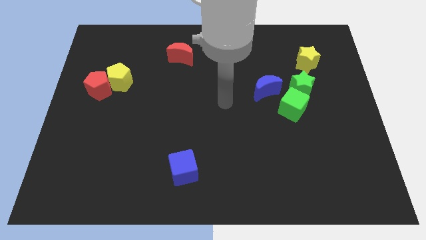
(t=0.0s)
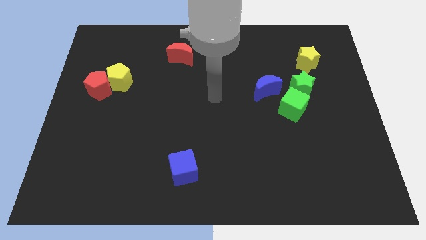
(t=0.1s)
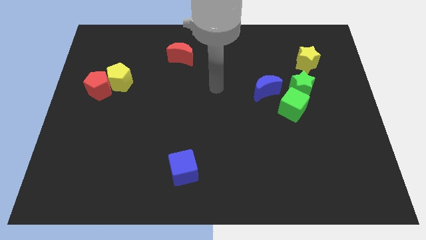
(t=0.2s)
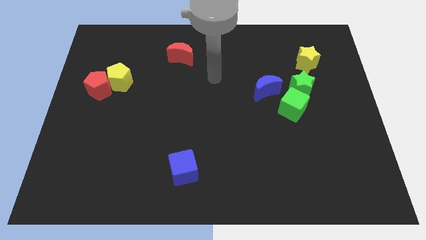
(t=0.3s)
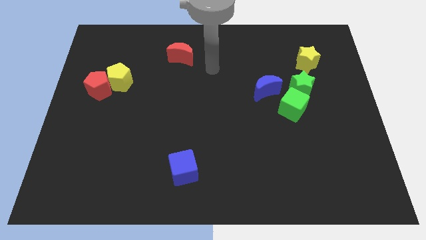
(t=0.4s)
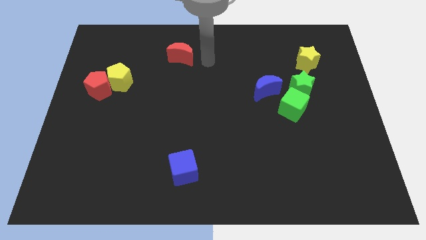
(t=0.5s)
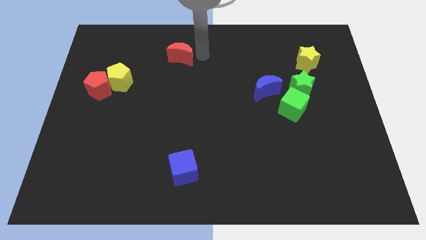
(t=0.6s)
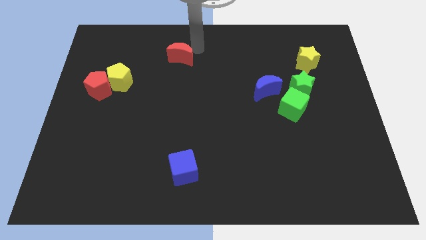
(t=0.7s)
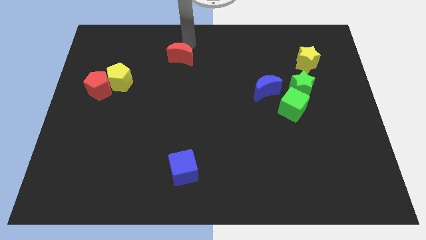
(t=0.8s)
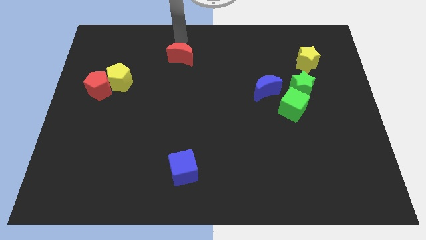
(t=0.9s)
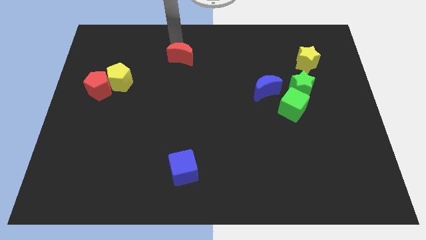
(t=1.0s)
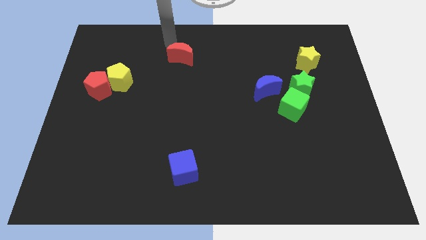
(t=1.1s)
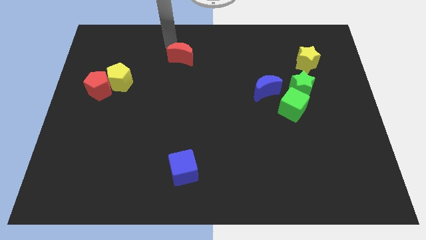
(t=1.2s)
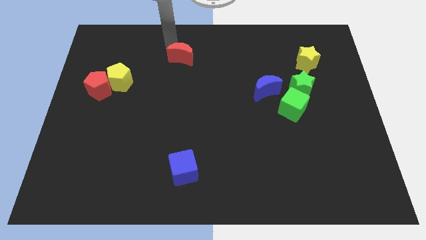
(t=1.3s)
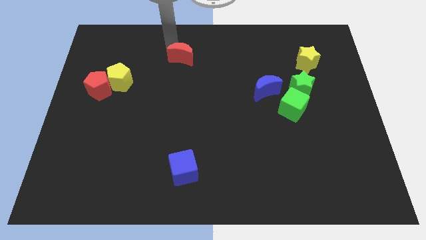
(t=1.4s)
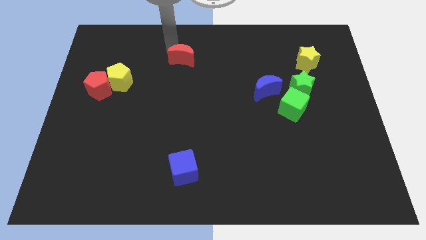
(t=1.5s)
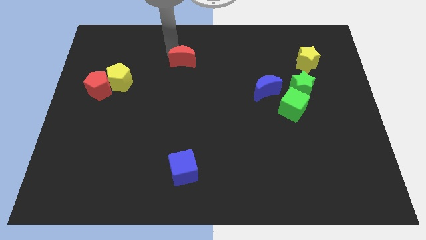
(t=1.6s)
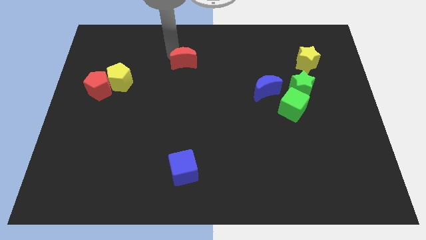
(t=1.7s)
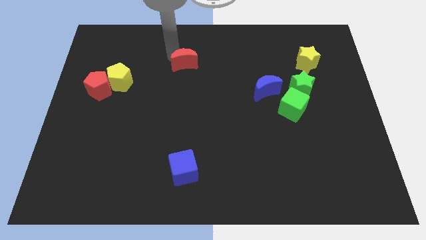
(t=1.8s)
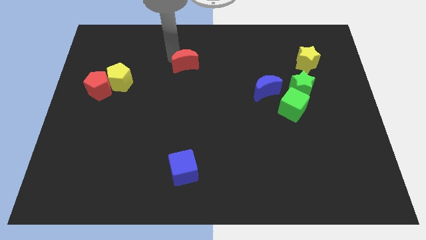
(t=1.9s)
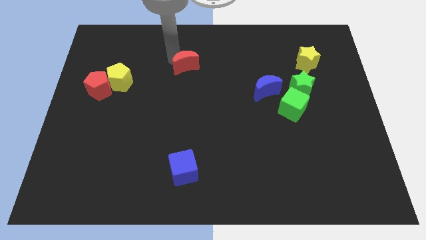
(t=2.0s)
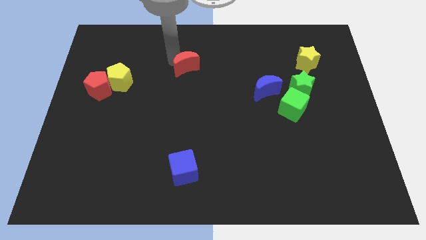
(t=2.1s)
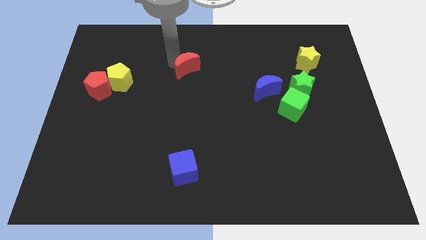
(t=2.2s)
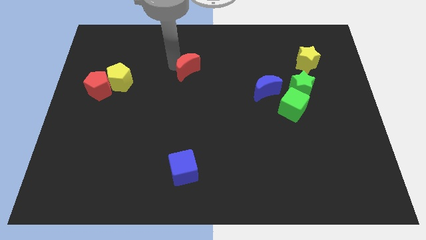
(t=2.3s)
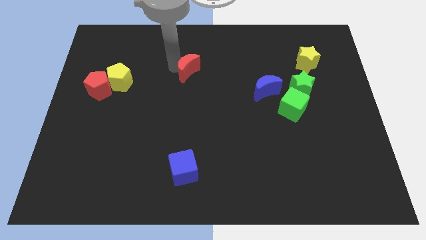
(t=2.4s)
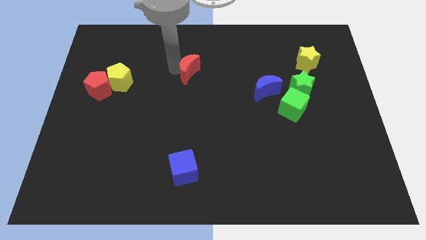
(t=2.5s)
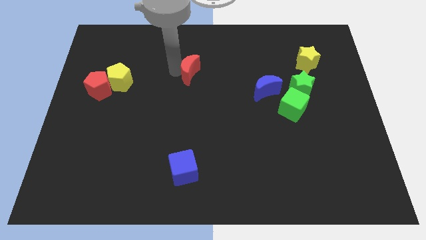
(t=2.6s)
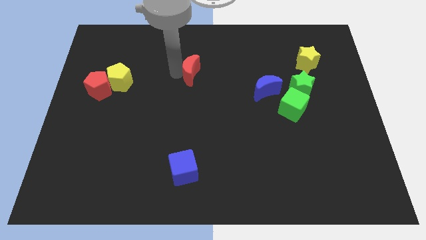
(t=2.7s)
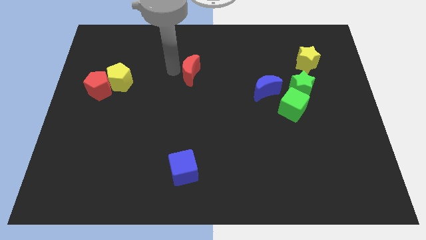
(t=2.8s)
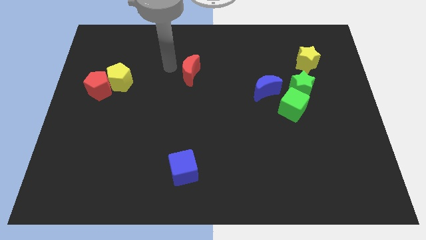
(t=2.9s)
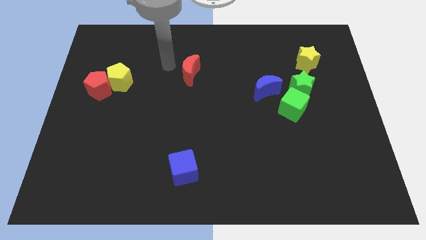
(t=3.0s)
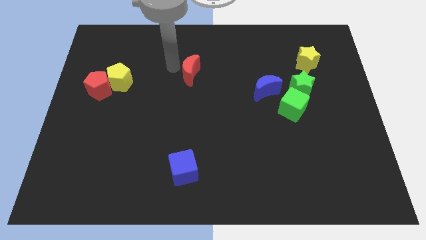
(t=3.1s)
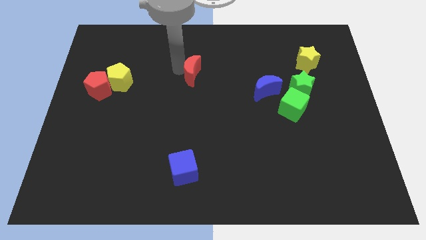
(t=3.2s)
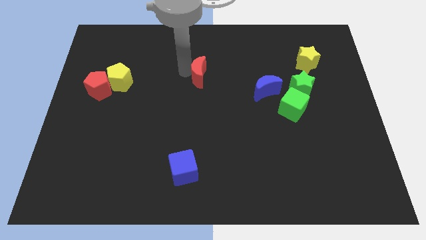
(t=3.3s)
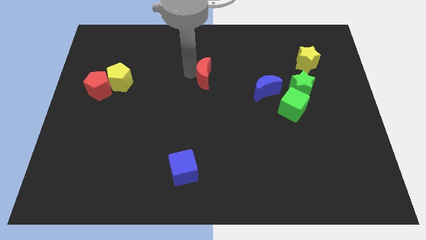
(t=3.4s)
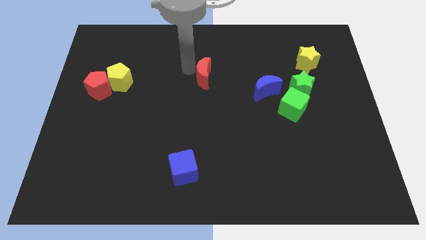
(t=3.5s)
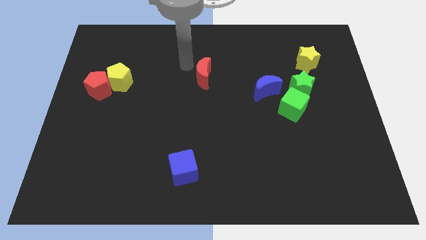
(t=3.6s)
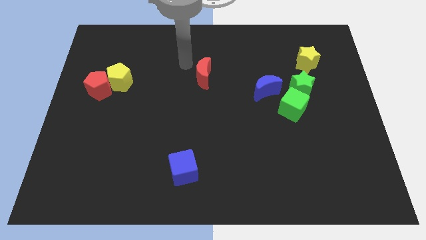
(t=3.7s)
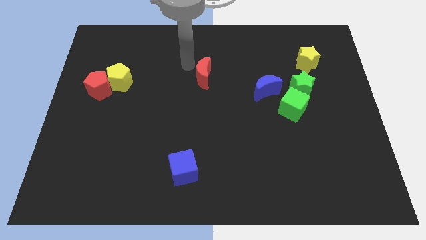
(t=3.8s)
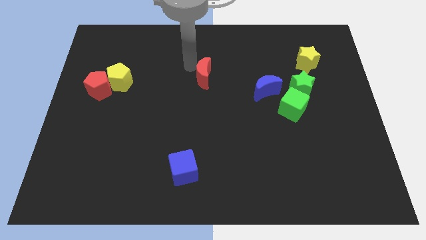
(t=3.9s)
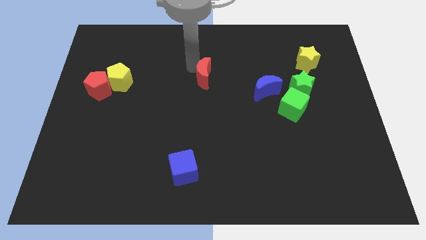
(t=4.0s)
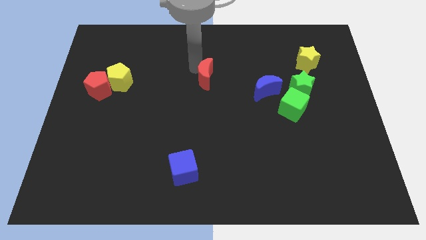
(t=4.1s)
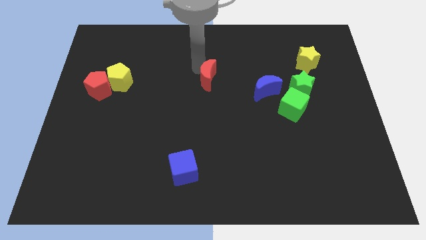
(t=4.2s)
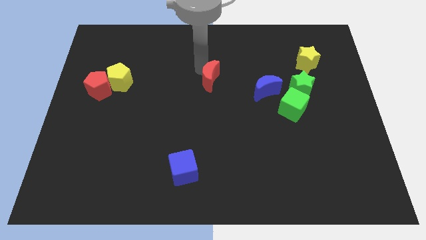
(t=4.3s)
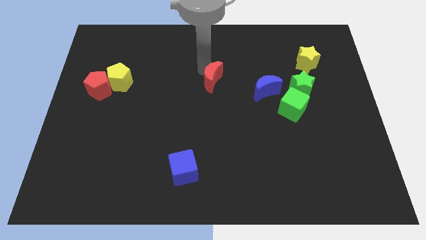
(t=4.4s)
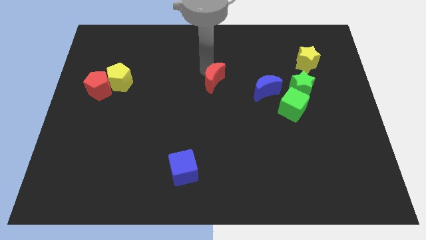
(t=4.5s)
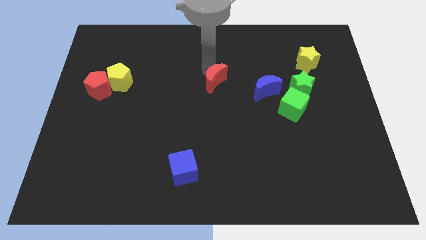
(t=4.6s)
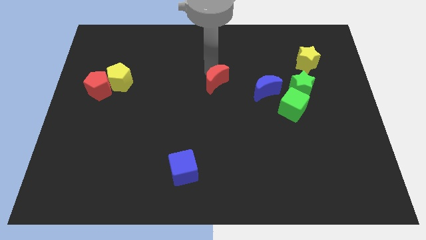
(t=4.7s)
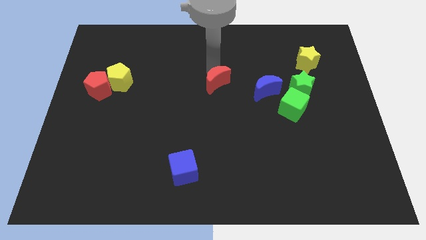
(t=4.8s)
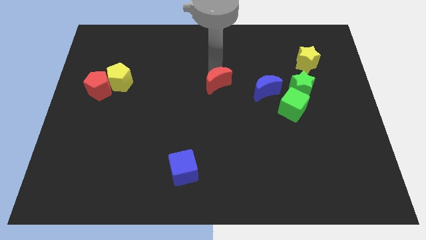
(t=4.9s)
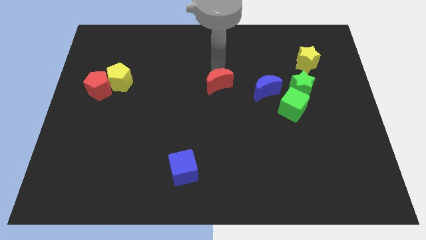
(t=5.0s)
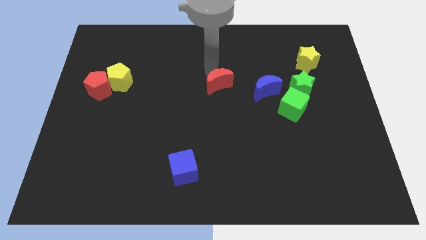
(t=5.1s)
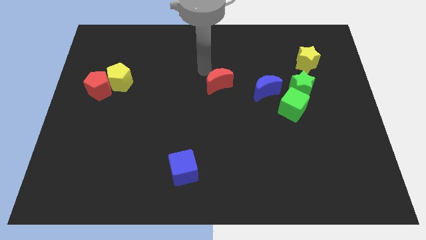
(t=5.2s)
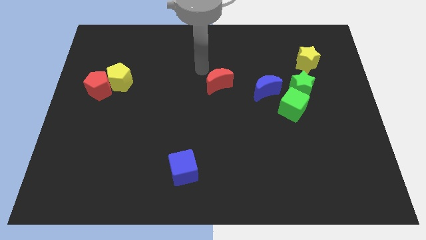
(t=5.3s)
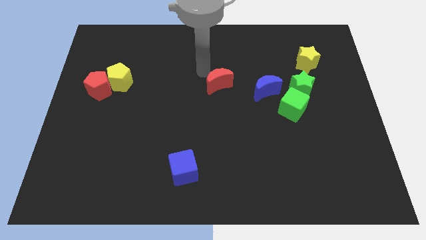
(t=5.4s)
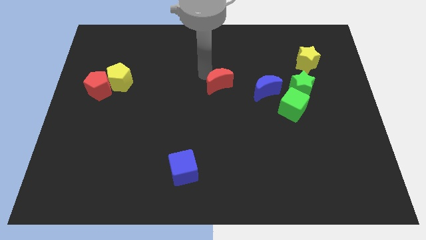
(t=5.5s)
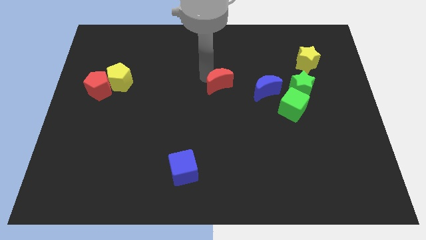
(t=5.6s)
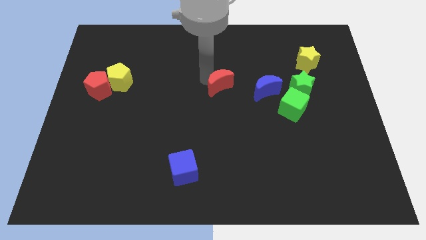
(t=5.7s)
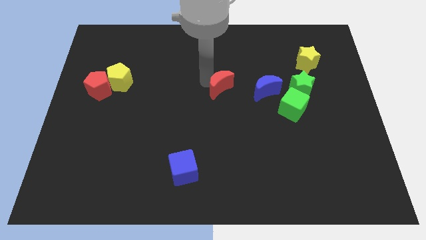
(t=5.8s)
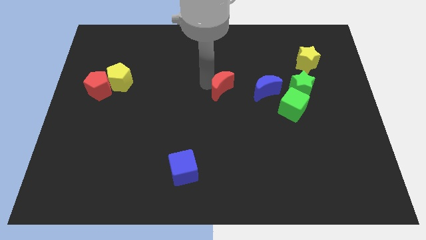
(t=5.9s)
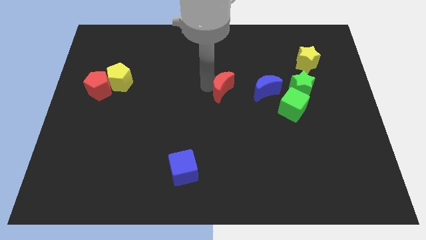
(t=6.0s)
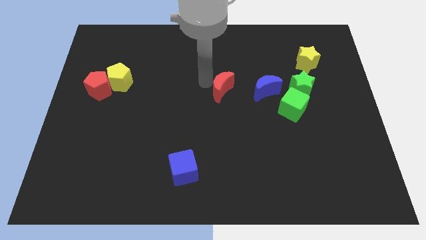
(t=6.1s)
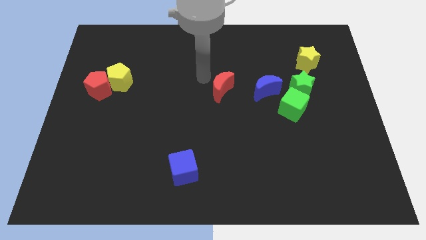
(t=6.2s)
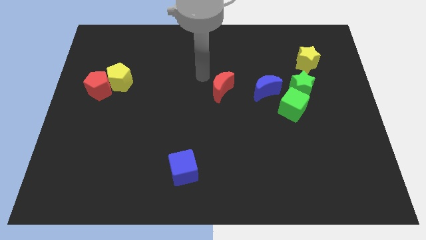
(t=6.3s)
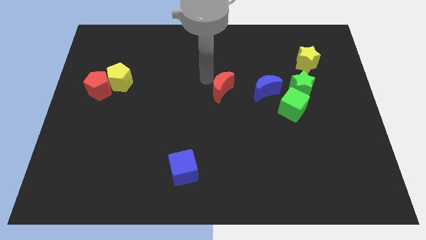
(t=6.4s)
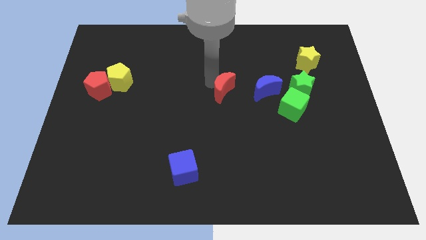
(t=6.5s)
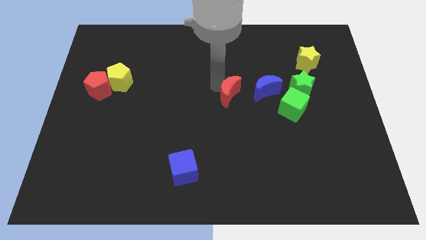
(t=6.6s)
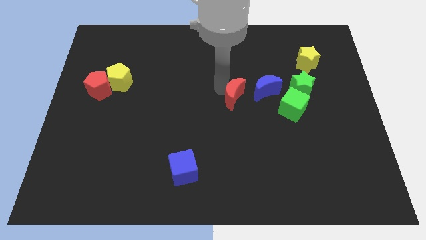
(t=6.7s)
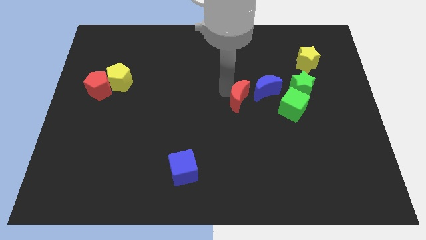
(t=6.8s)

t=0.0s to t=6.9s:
push the red moon diagonally down and right

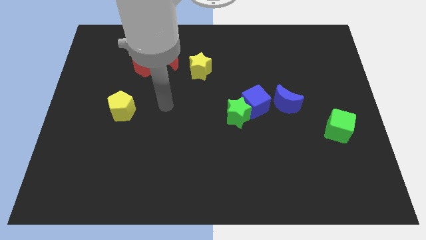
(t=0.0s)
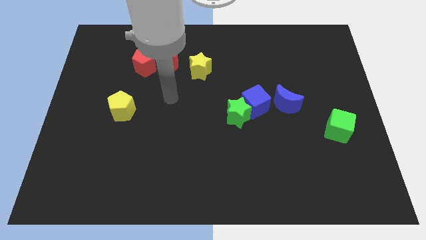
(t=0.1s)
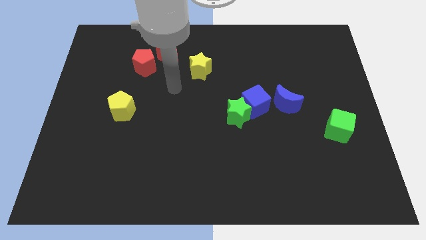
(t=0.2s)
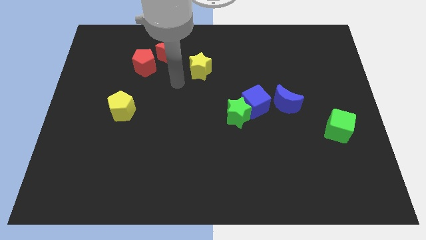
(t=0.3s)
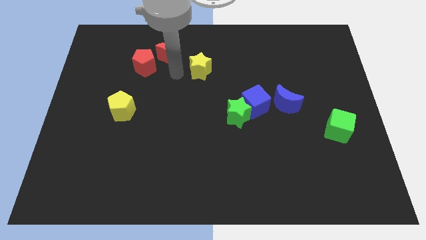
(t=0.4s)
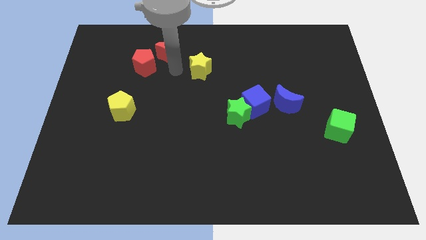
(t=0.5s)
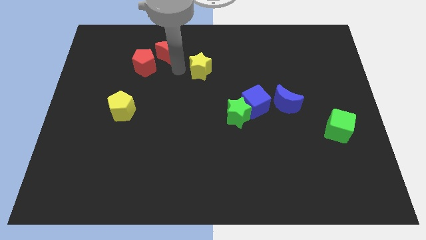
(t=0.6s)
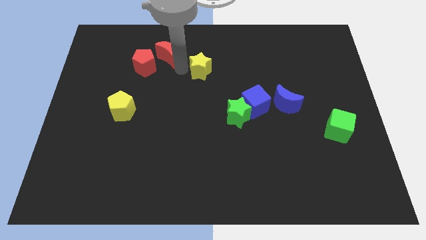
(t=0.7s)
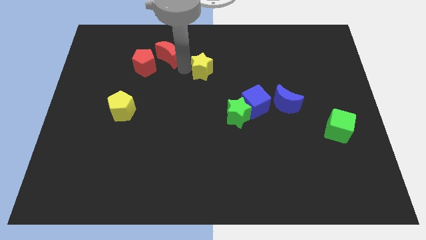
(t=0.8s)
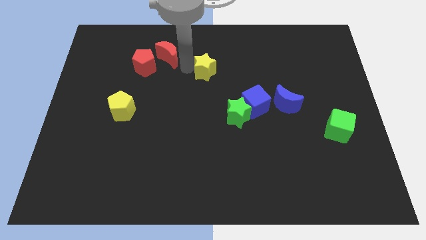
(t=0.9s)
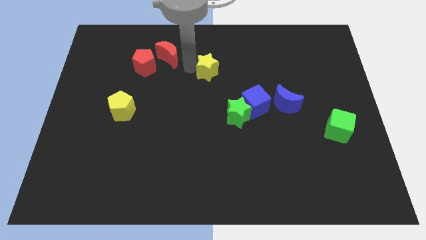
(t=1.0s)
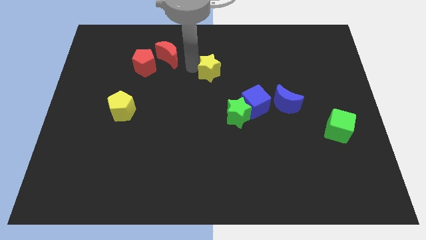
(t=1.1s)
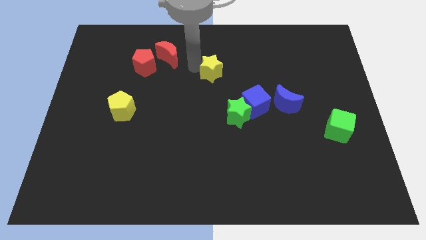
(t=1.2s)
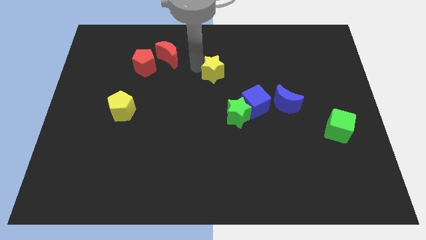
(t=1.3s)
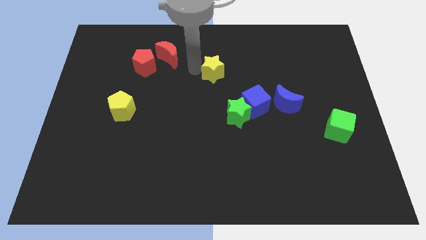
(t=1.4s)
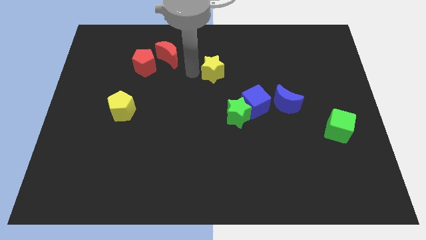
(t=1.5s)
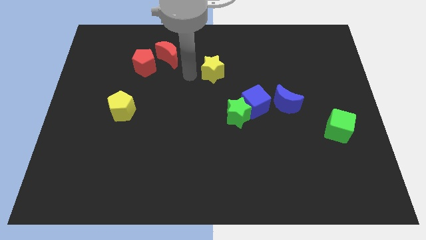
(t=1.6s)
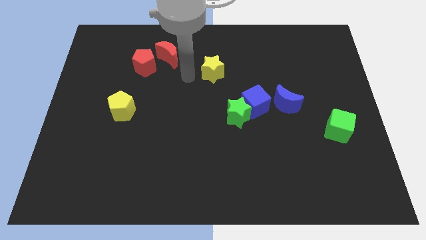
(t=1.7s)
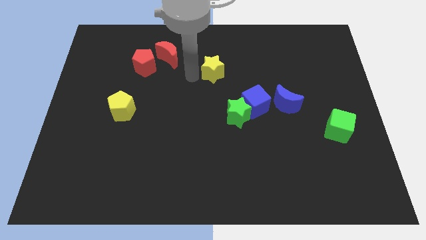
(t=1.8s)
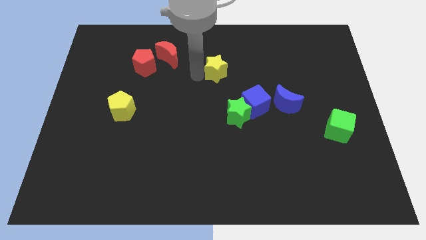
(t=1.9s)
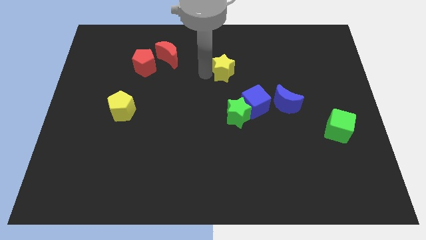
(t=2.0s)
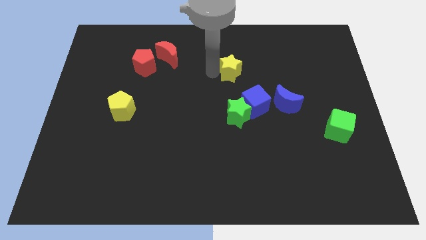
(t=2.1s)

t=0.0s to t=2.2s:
slide the yellow star right slightly
